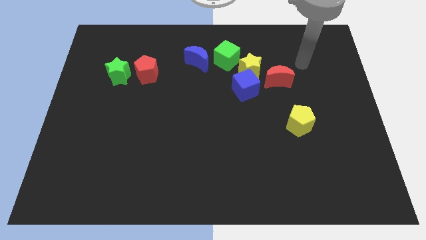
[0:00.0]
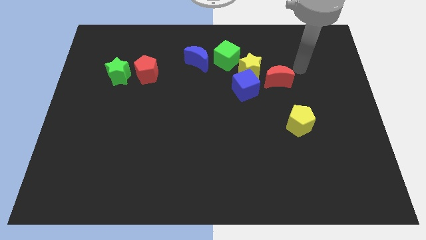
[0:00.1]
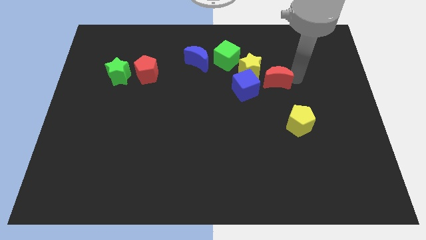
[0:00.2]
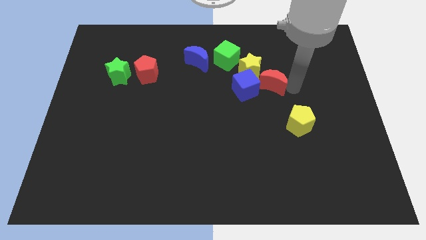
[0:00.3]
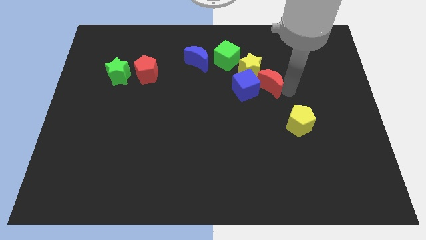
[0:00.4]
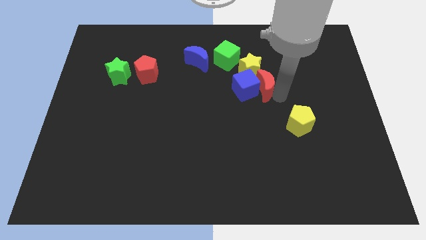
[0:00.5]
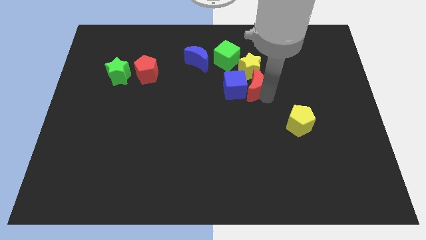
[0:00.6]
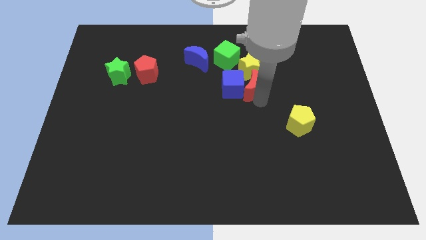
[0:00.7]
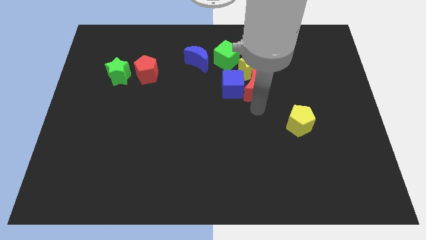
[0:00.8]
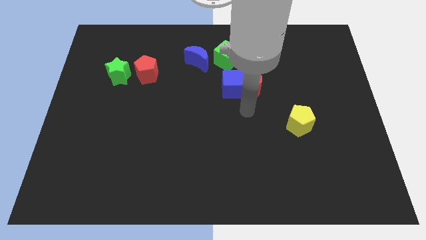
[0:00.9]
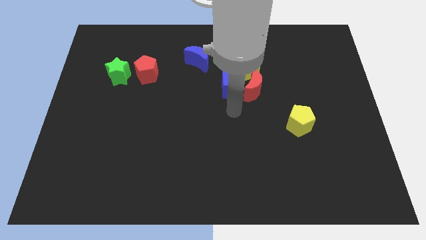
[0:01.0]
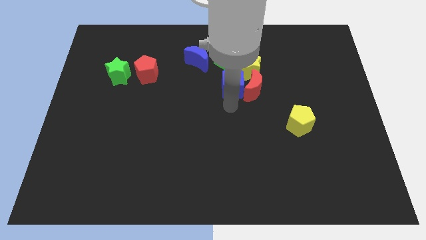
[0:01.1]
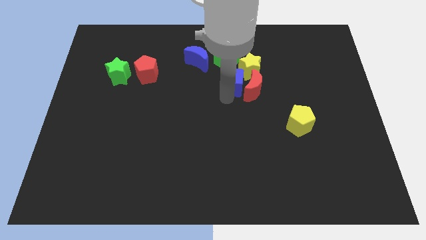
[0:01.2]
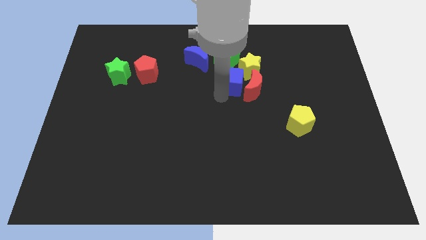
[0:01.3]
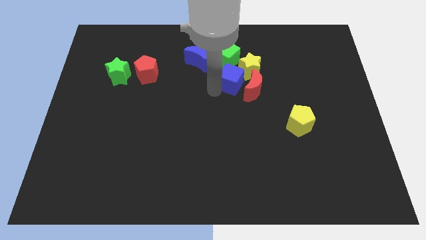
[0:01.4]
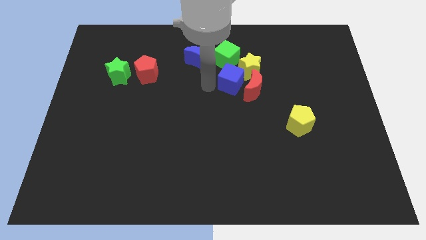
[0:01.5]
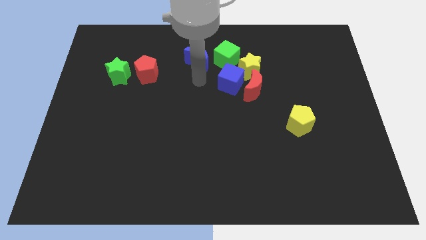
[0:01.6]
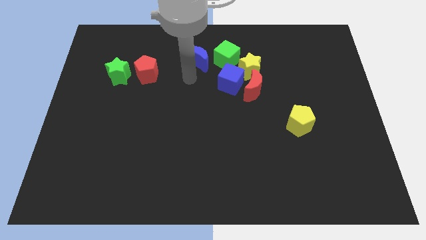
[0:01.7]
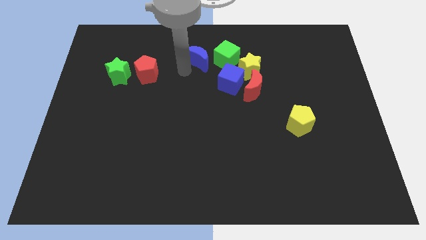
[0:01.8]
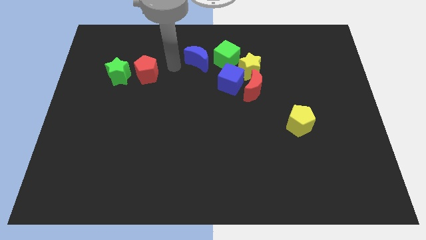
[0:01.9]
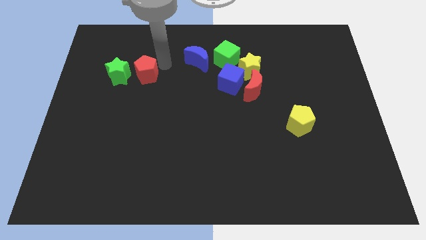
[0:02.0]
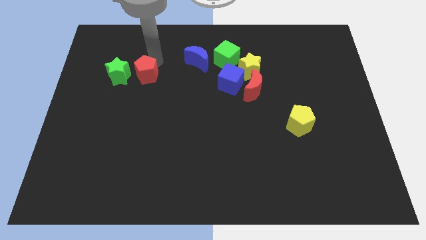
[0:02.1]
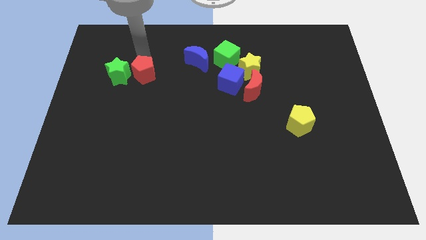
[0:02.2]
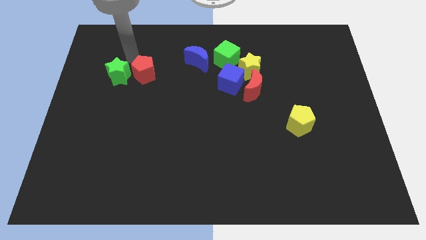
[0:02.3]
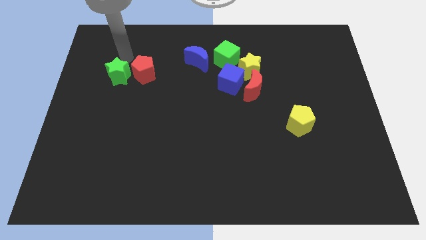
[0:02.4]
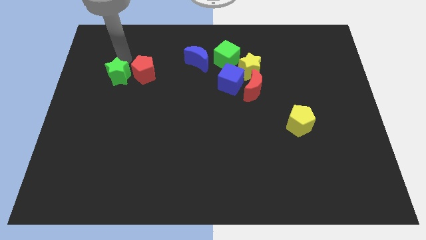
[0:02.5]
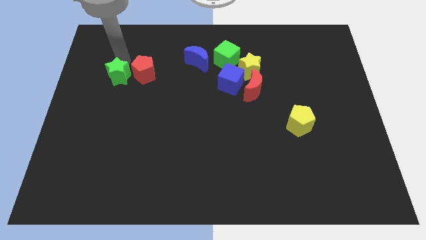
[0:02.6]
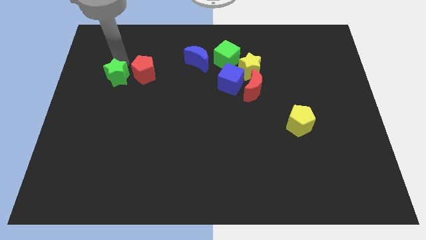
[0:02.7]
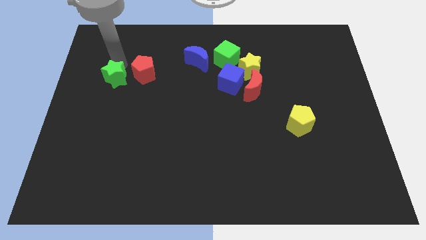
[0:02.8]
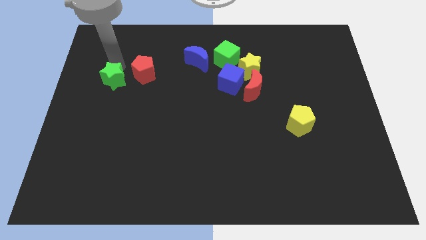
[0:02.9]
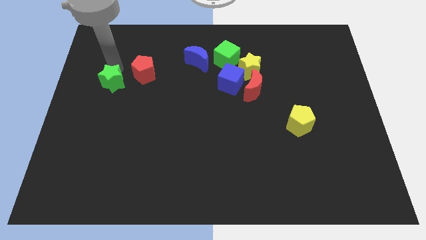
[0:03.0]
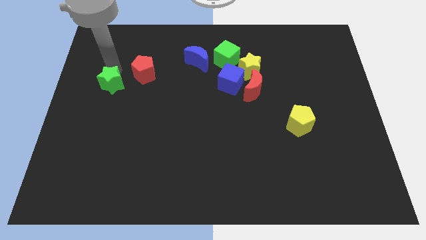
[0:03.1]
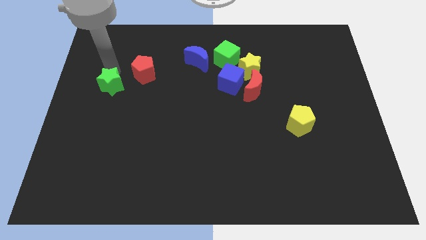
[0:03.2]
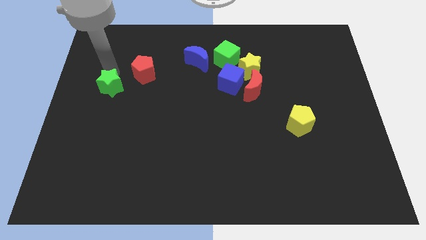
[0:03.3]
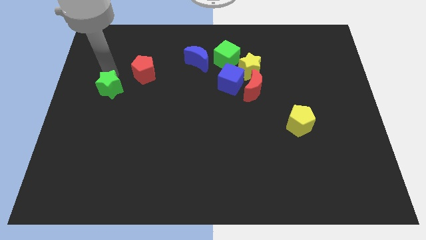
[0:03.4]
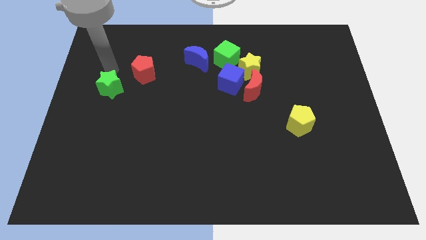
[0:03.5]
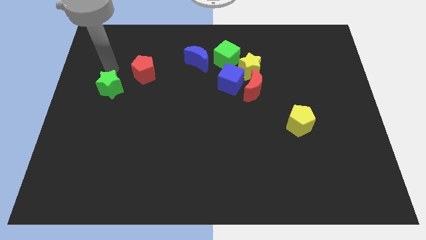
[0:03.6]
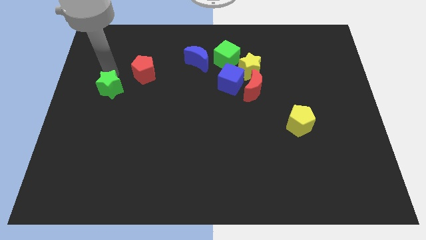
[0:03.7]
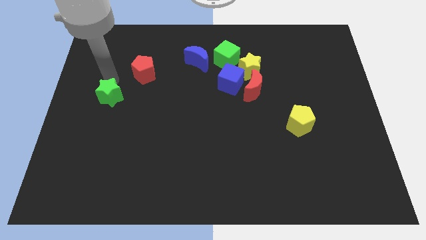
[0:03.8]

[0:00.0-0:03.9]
slightly move the green star downwards

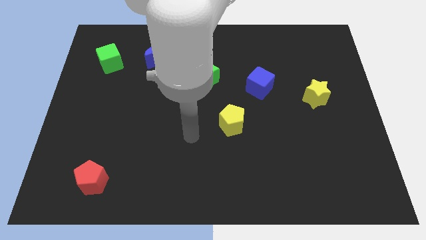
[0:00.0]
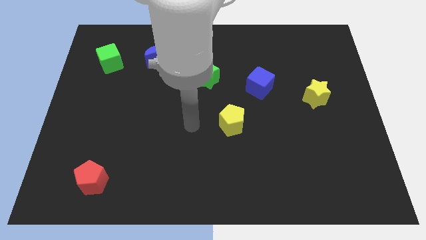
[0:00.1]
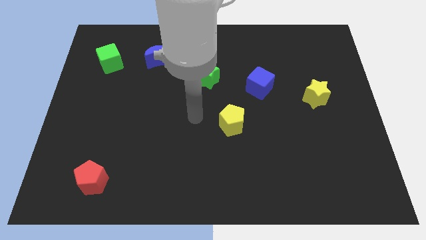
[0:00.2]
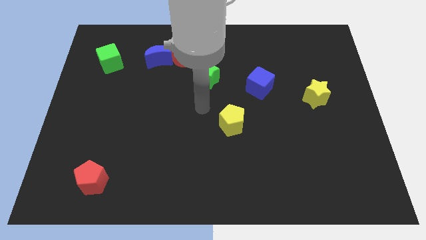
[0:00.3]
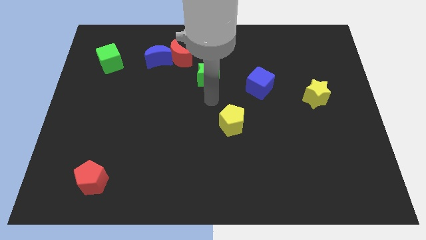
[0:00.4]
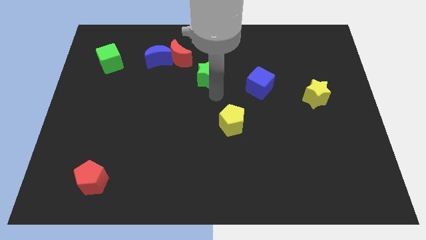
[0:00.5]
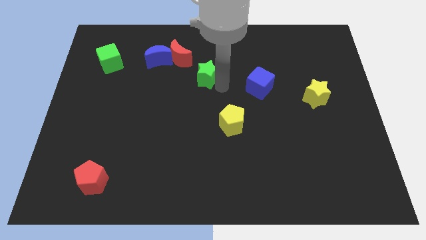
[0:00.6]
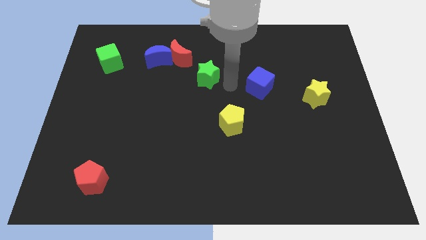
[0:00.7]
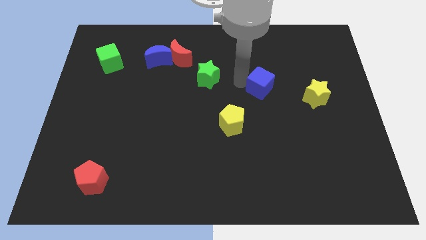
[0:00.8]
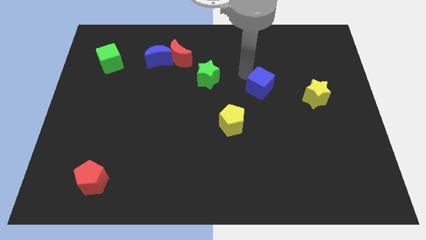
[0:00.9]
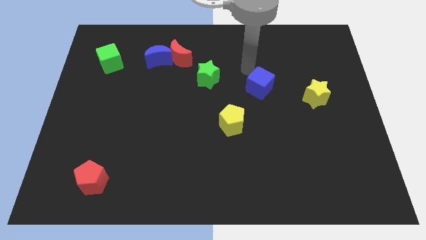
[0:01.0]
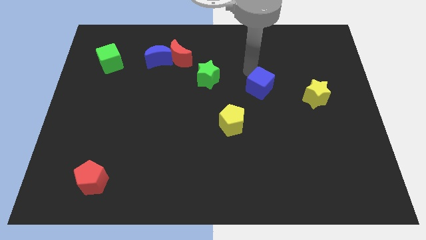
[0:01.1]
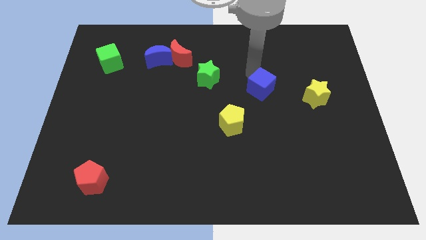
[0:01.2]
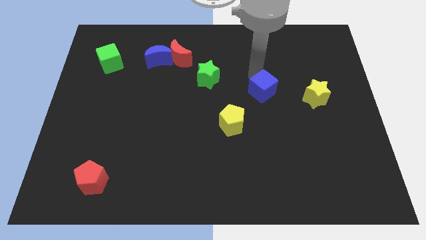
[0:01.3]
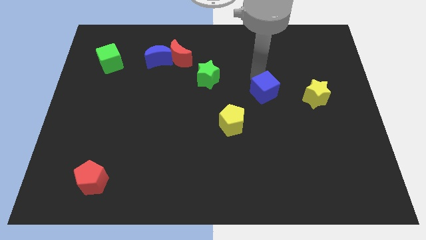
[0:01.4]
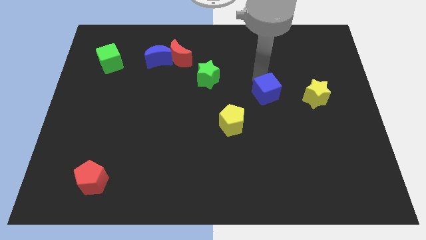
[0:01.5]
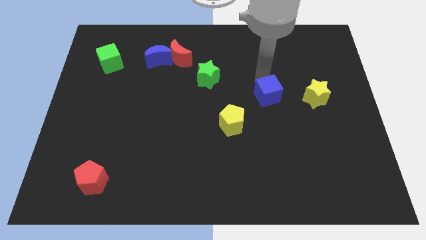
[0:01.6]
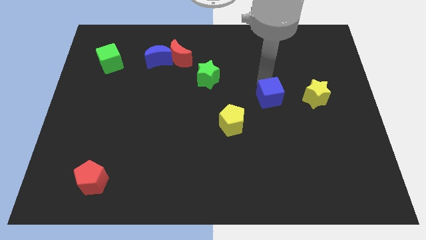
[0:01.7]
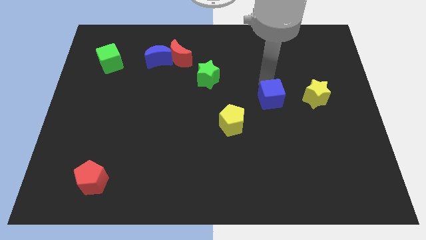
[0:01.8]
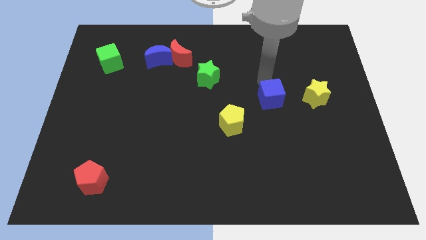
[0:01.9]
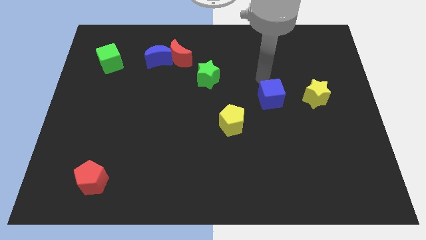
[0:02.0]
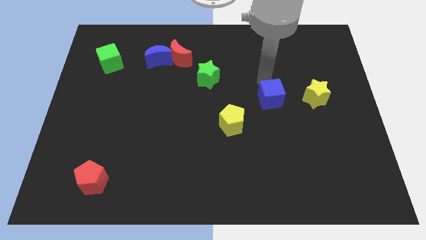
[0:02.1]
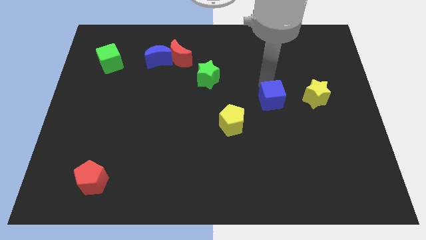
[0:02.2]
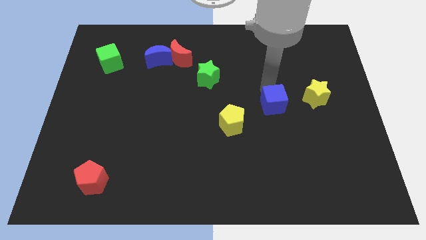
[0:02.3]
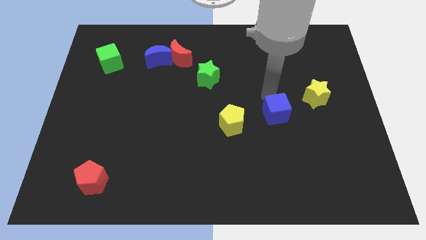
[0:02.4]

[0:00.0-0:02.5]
slightly move the blue cube diagonally down and to the right

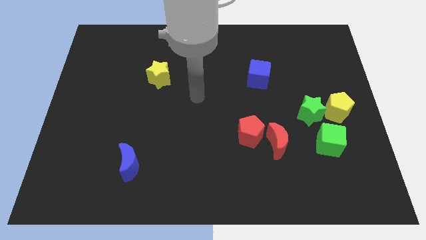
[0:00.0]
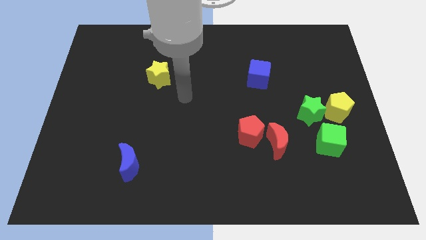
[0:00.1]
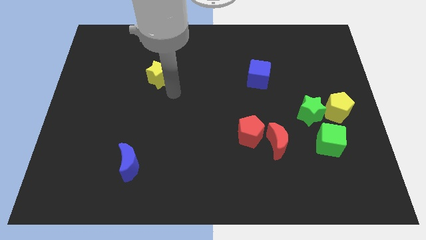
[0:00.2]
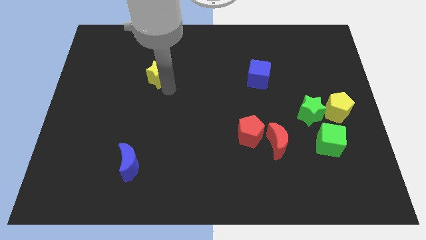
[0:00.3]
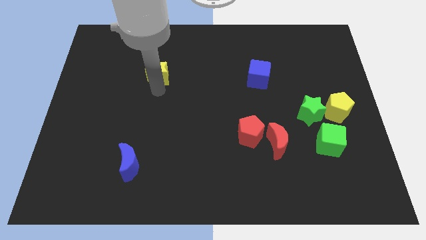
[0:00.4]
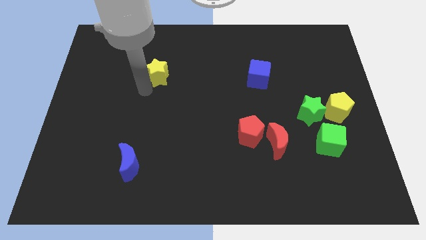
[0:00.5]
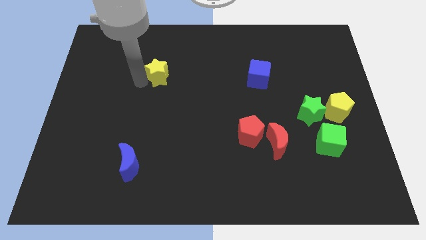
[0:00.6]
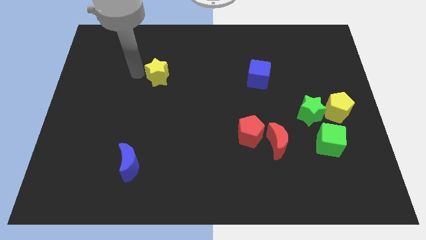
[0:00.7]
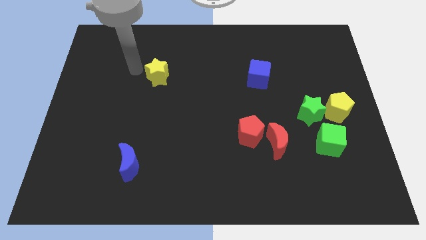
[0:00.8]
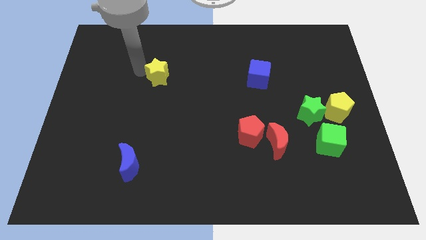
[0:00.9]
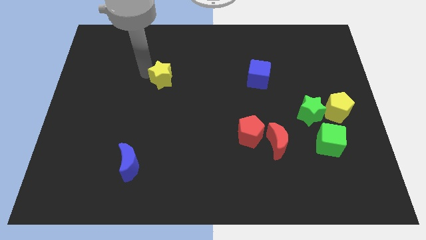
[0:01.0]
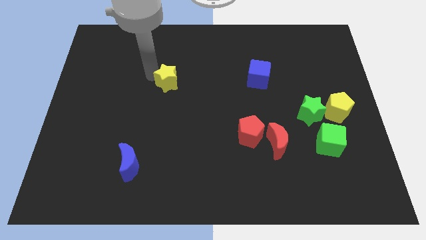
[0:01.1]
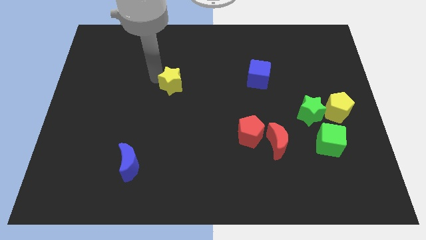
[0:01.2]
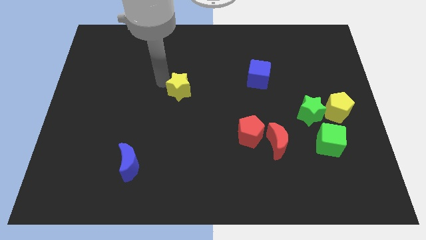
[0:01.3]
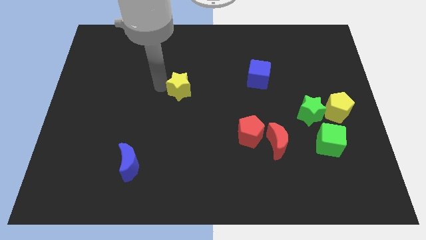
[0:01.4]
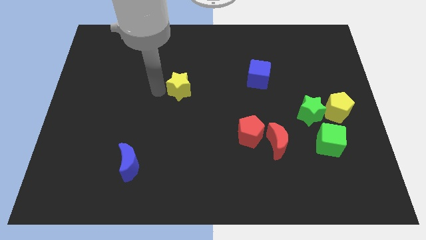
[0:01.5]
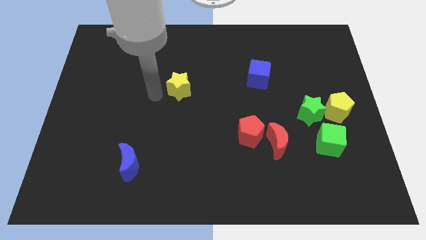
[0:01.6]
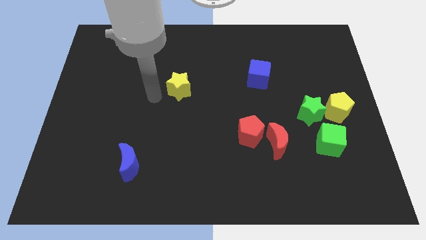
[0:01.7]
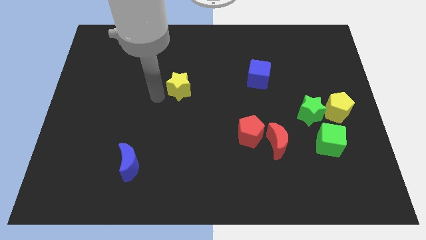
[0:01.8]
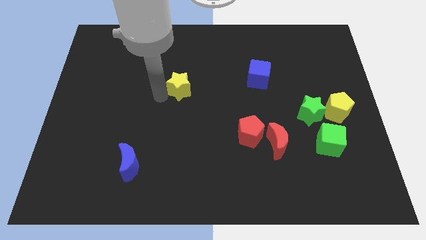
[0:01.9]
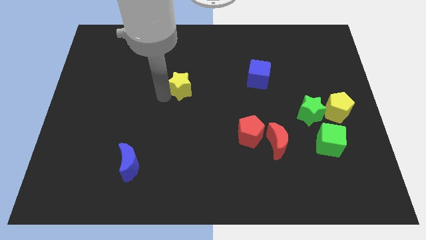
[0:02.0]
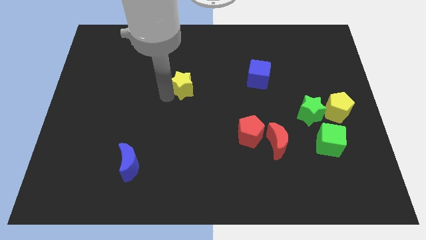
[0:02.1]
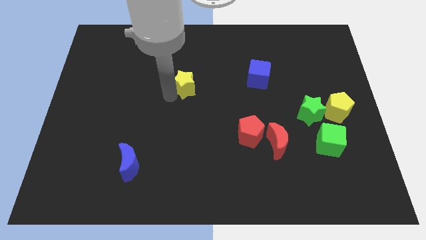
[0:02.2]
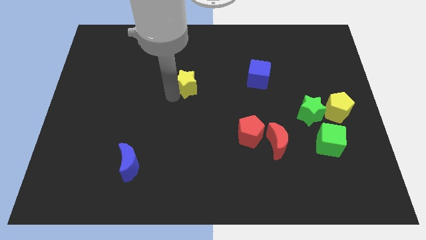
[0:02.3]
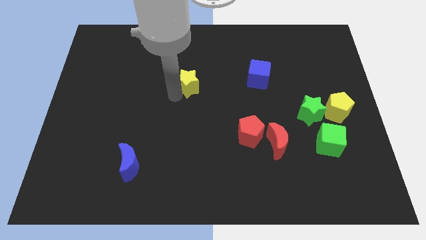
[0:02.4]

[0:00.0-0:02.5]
slide the yellow star to the right somewhat
